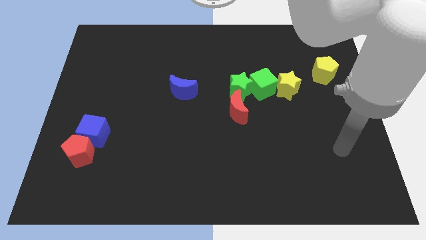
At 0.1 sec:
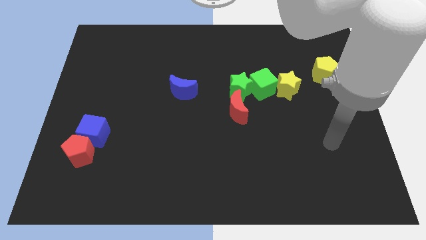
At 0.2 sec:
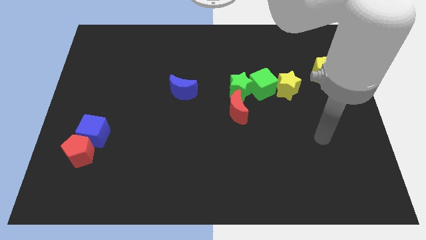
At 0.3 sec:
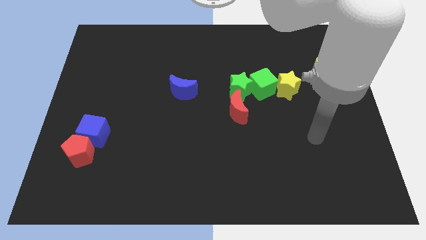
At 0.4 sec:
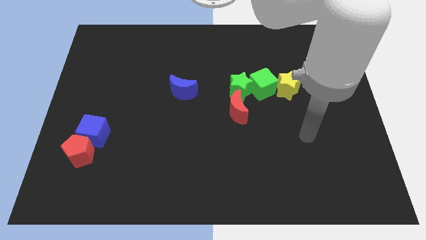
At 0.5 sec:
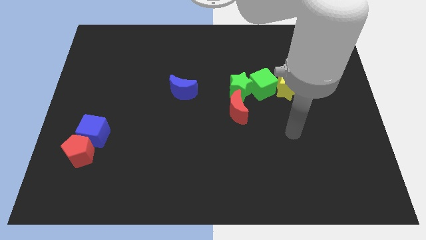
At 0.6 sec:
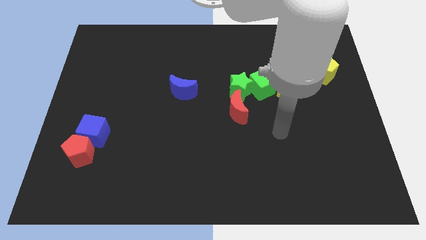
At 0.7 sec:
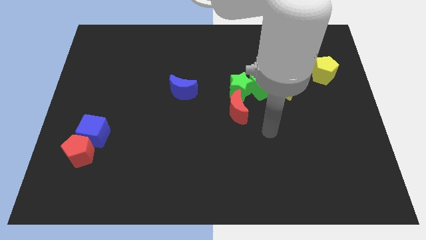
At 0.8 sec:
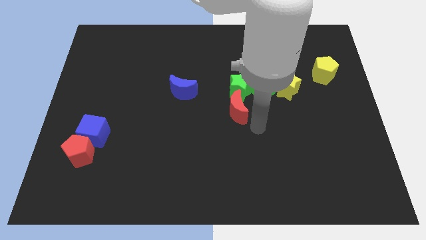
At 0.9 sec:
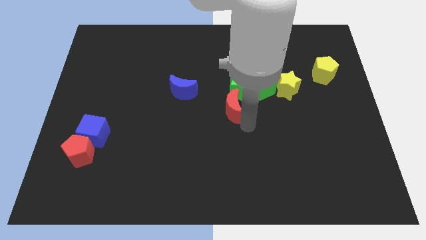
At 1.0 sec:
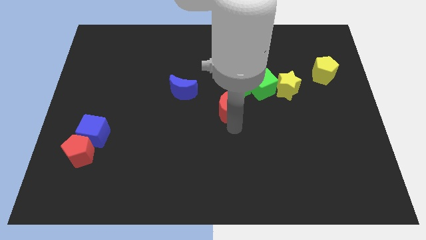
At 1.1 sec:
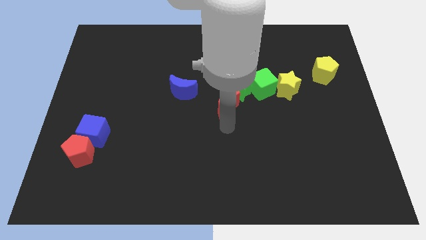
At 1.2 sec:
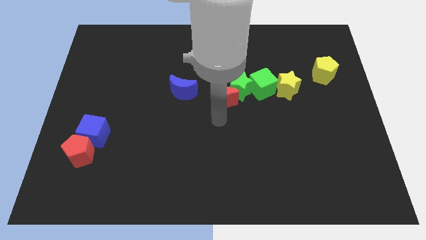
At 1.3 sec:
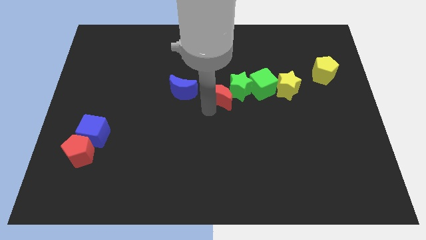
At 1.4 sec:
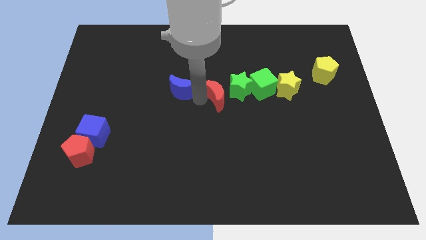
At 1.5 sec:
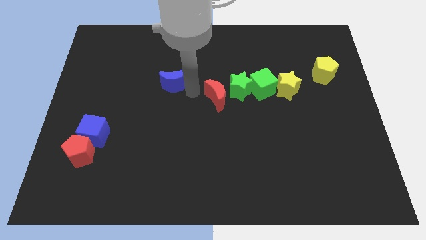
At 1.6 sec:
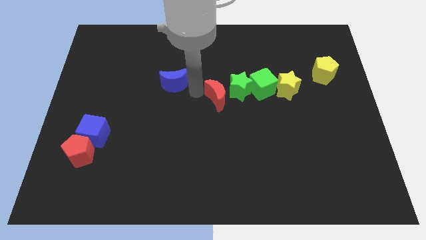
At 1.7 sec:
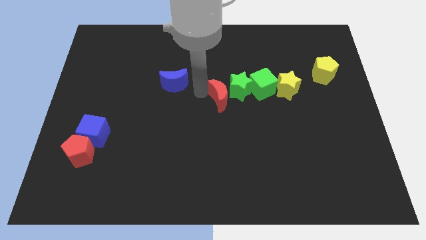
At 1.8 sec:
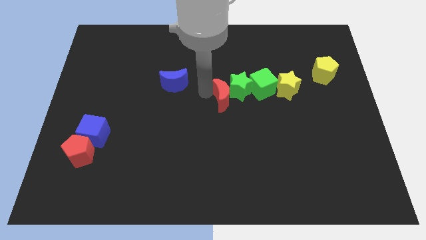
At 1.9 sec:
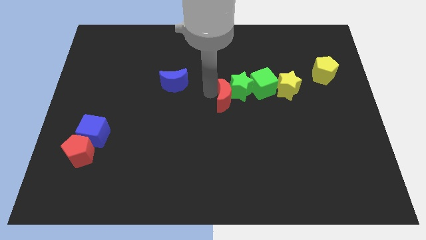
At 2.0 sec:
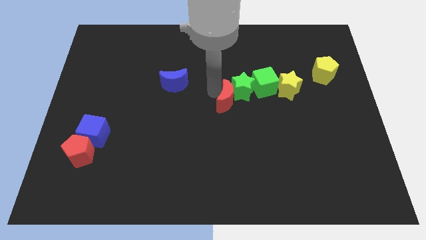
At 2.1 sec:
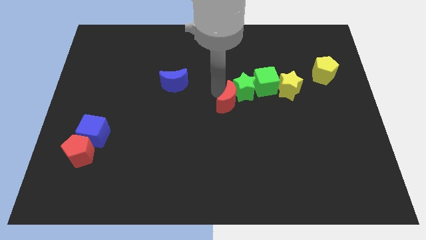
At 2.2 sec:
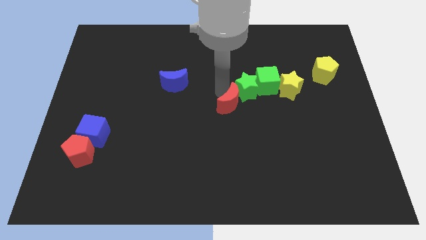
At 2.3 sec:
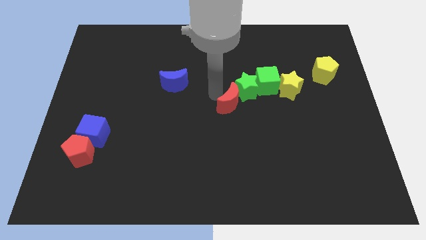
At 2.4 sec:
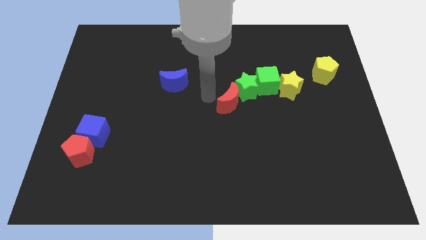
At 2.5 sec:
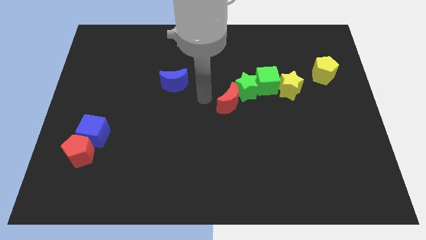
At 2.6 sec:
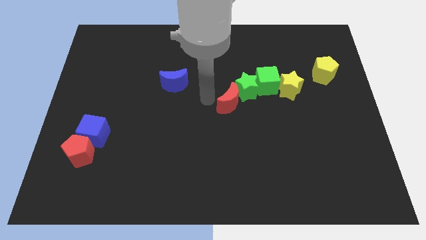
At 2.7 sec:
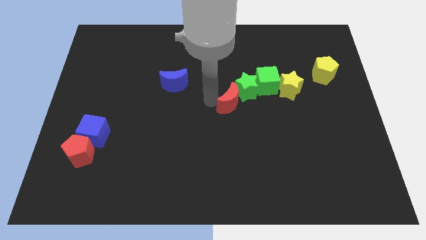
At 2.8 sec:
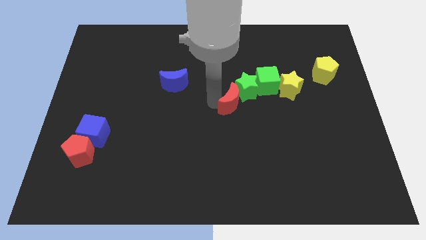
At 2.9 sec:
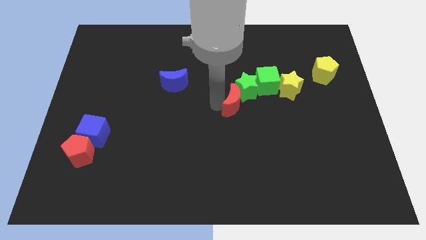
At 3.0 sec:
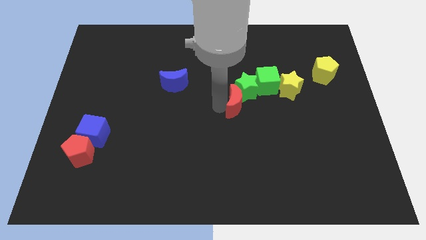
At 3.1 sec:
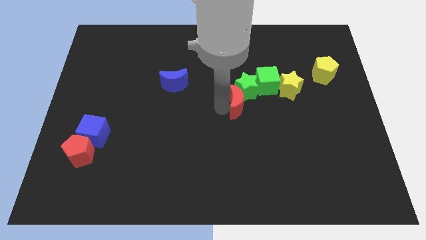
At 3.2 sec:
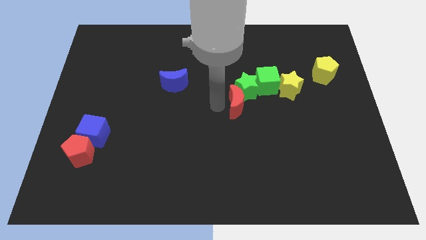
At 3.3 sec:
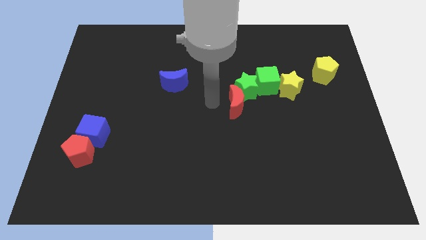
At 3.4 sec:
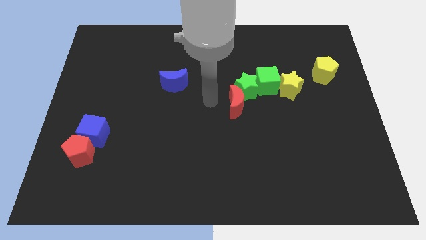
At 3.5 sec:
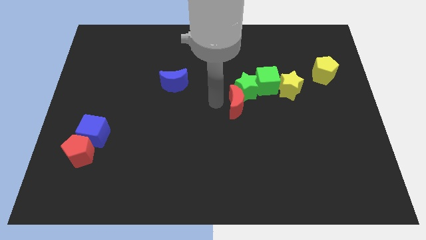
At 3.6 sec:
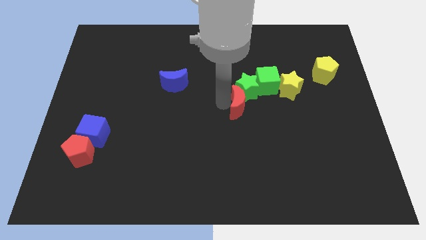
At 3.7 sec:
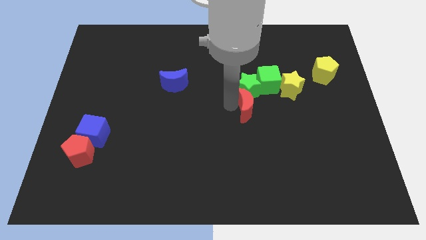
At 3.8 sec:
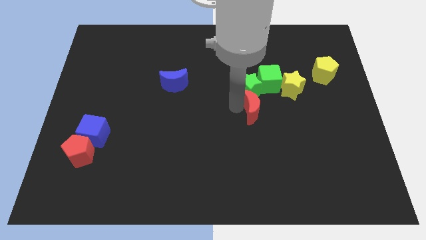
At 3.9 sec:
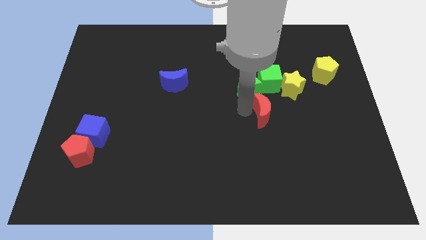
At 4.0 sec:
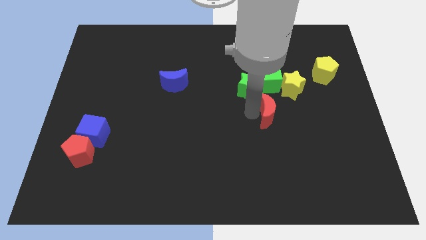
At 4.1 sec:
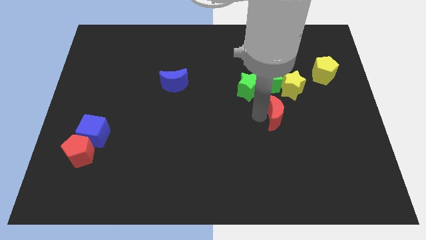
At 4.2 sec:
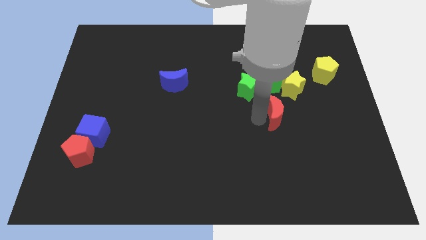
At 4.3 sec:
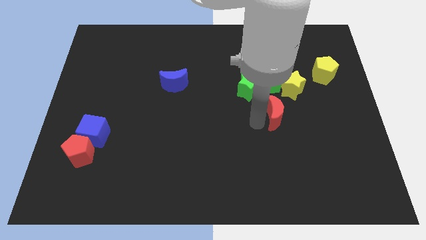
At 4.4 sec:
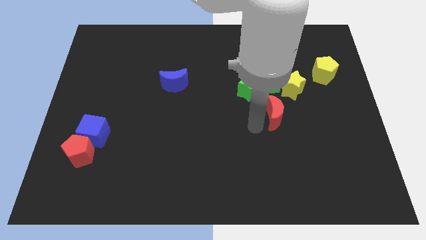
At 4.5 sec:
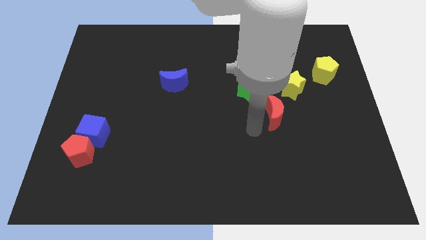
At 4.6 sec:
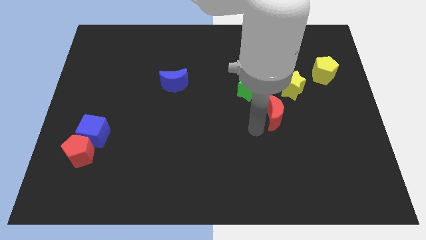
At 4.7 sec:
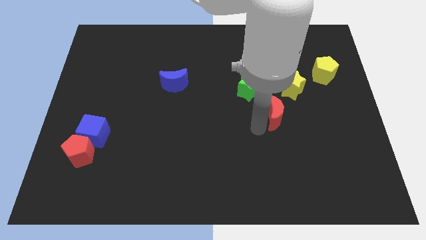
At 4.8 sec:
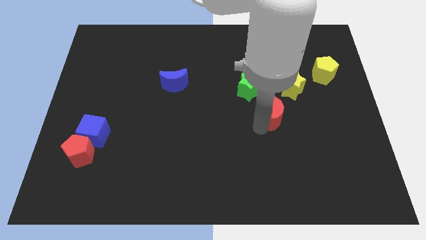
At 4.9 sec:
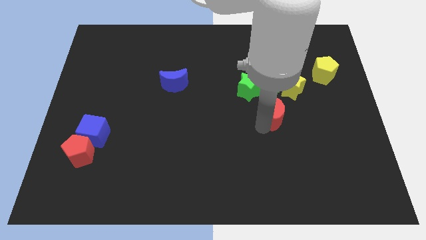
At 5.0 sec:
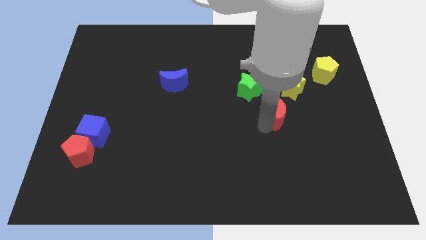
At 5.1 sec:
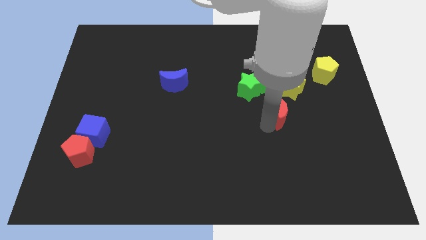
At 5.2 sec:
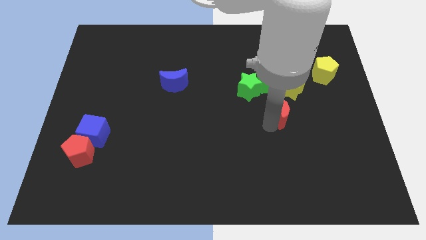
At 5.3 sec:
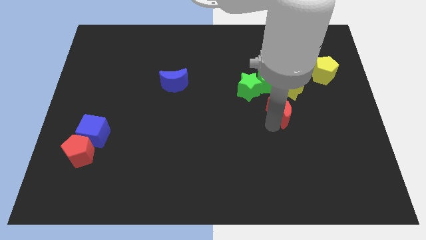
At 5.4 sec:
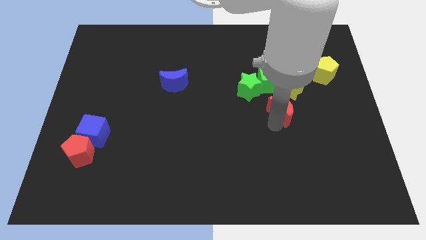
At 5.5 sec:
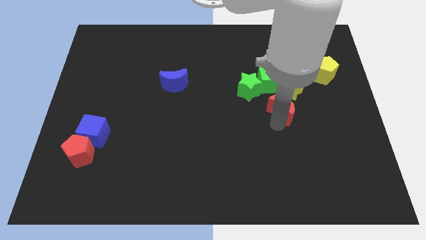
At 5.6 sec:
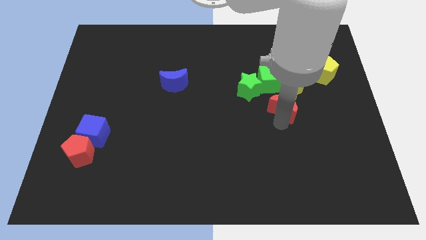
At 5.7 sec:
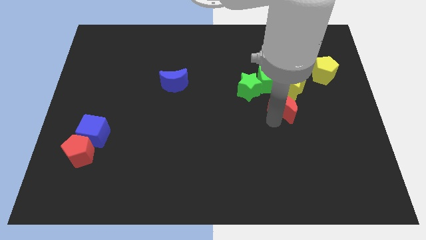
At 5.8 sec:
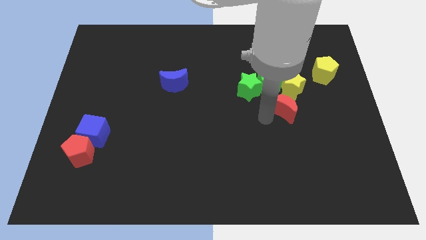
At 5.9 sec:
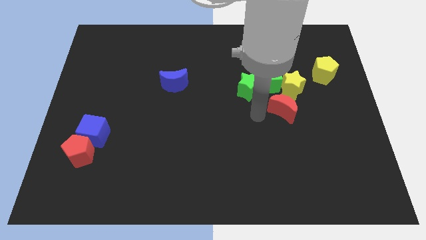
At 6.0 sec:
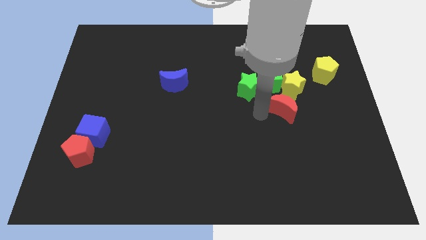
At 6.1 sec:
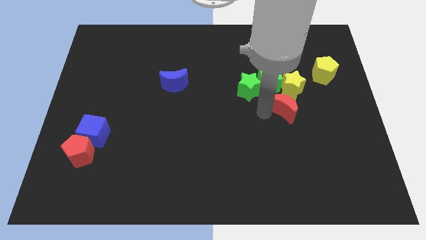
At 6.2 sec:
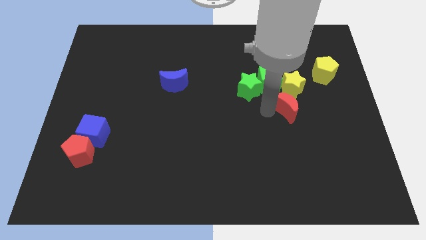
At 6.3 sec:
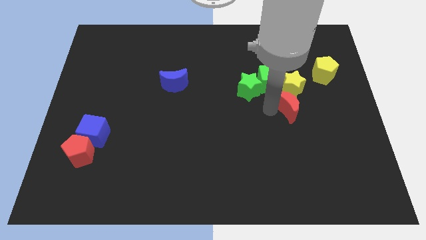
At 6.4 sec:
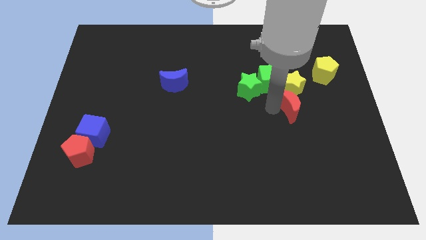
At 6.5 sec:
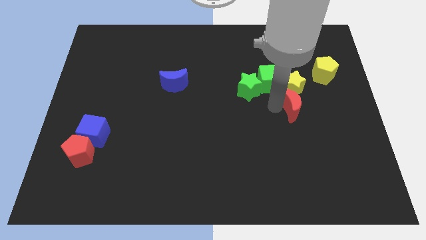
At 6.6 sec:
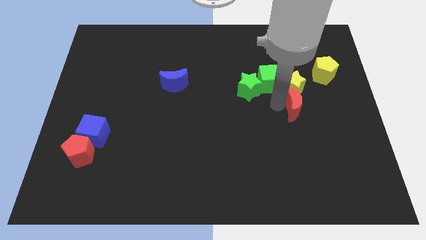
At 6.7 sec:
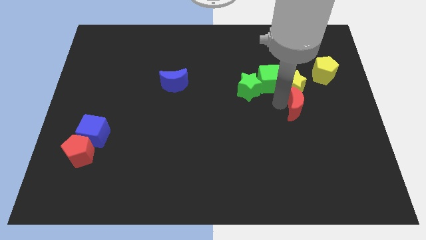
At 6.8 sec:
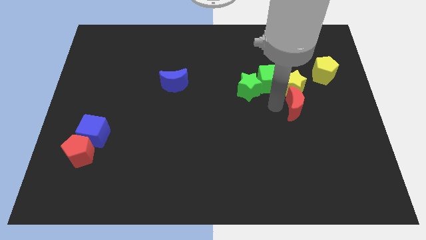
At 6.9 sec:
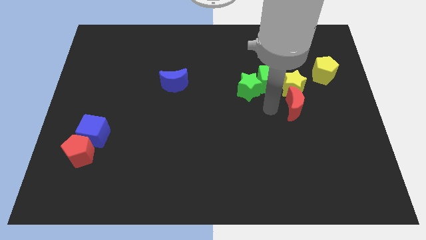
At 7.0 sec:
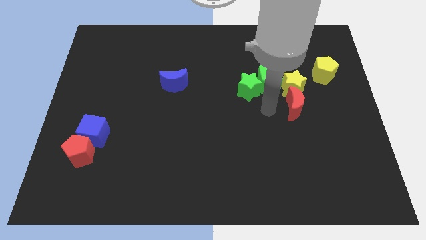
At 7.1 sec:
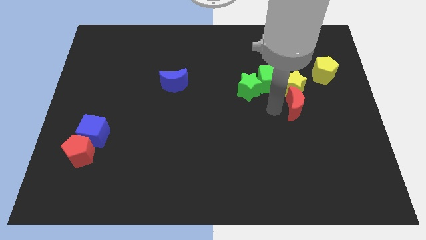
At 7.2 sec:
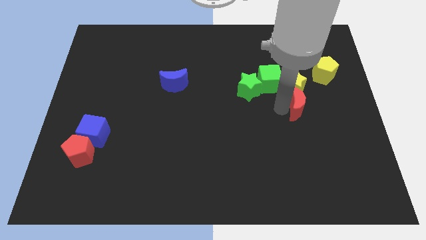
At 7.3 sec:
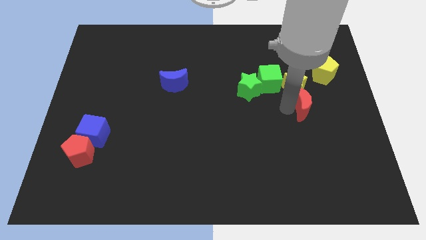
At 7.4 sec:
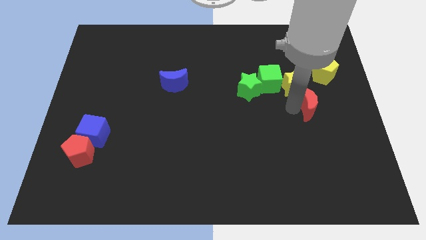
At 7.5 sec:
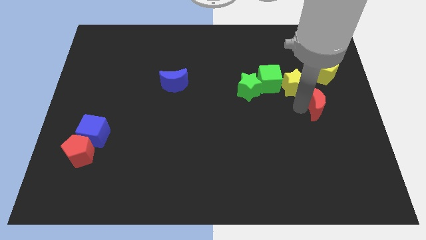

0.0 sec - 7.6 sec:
put the red moon to the bottom side of the yellow pentagon
